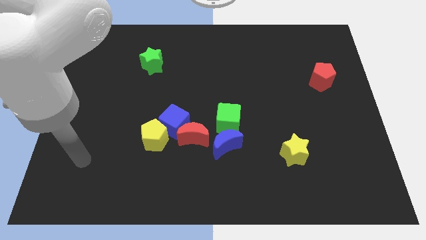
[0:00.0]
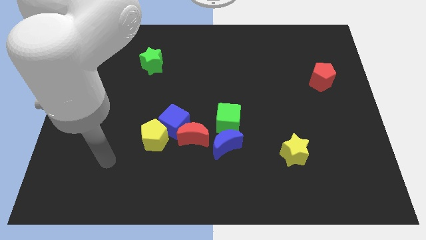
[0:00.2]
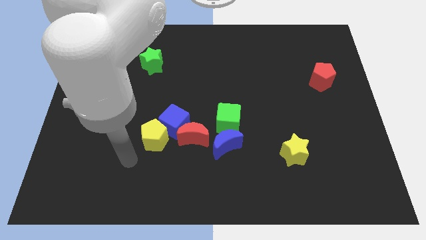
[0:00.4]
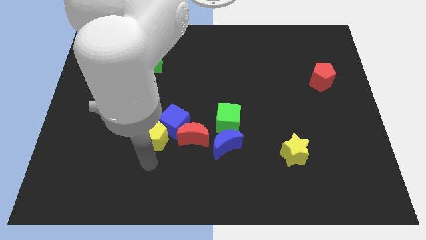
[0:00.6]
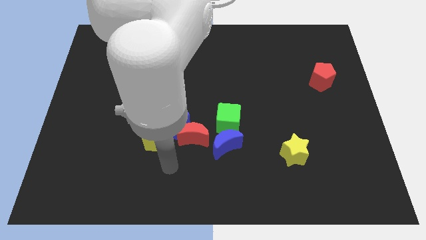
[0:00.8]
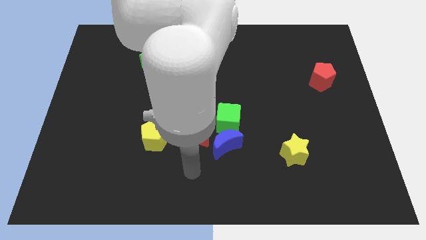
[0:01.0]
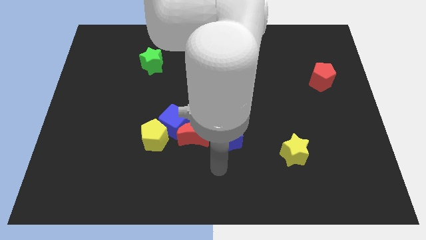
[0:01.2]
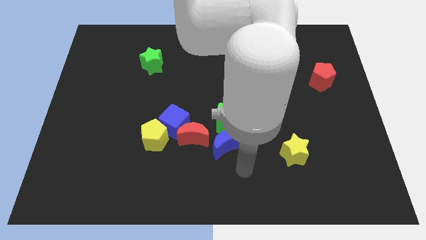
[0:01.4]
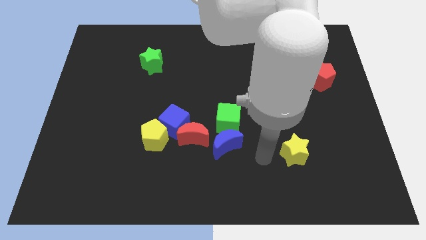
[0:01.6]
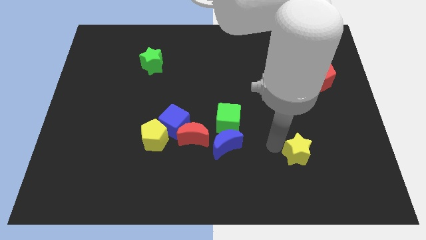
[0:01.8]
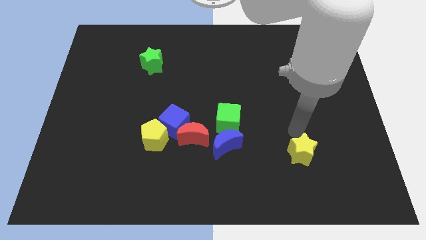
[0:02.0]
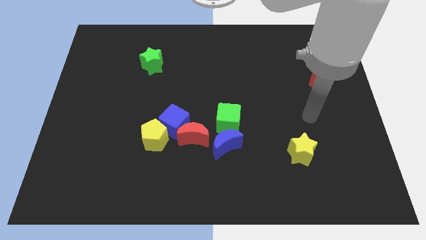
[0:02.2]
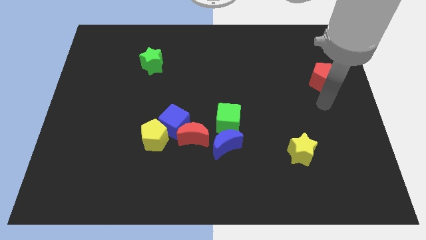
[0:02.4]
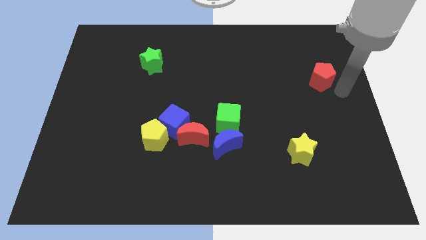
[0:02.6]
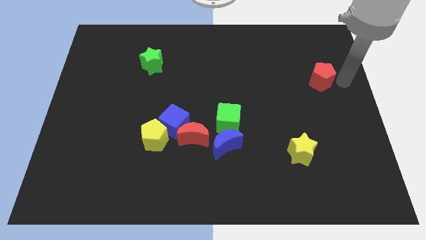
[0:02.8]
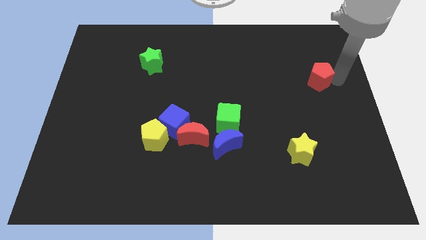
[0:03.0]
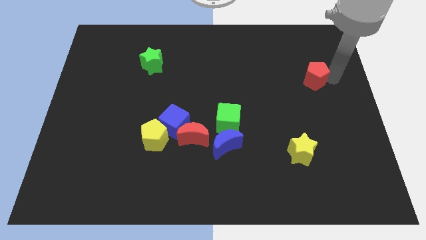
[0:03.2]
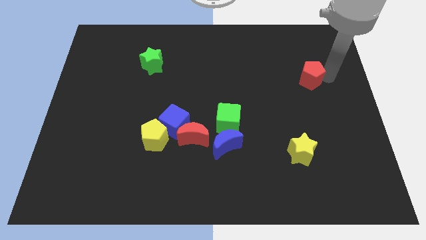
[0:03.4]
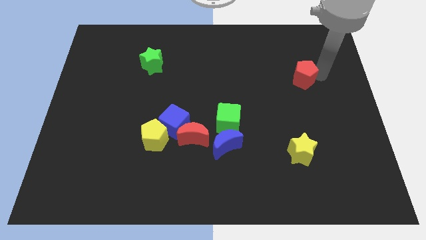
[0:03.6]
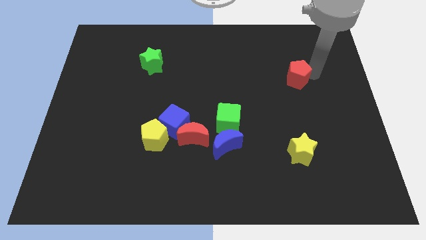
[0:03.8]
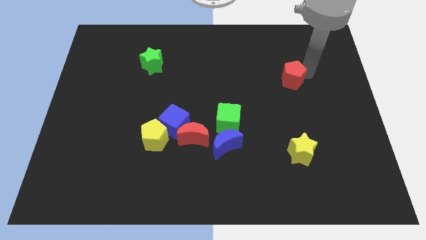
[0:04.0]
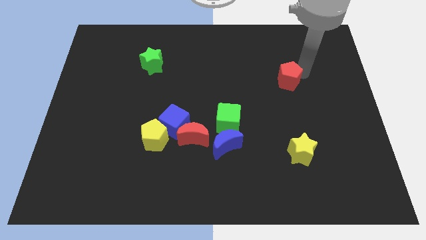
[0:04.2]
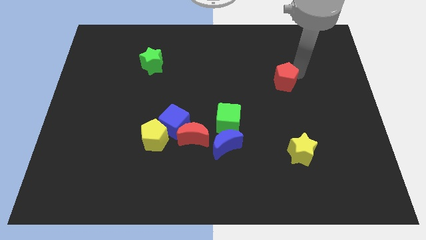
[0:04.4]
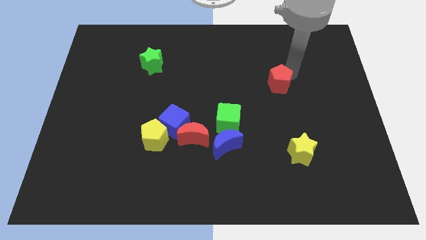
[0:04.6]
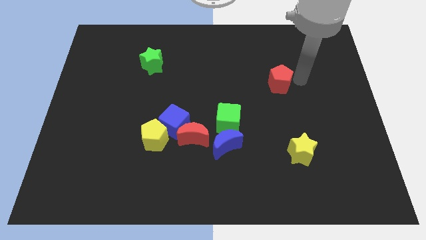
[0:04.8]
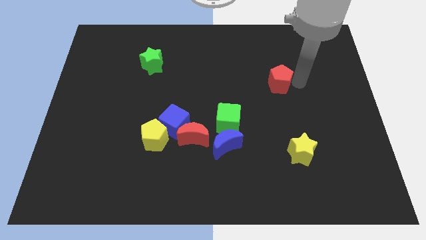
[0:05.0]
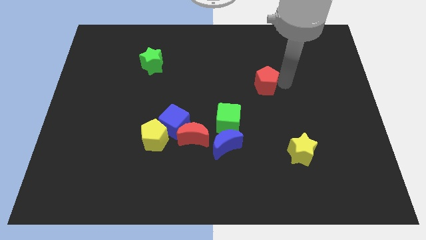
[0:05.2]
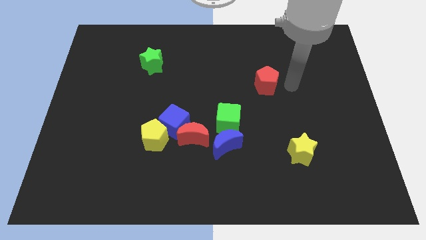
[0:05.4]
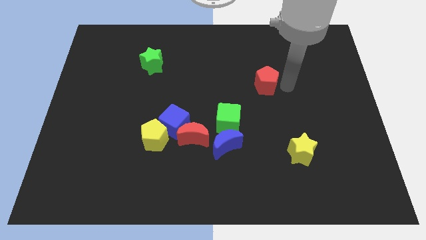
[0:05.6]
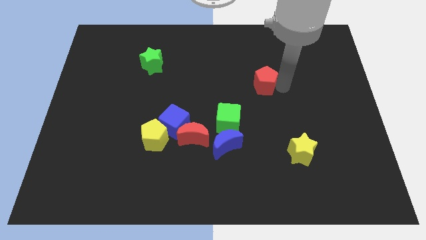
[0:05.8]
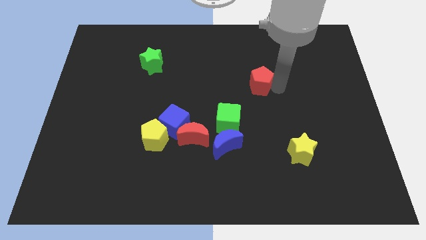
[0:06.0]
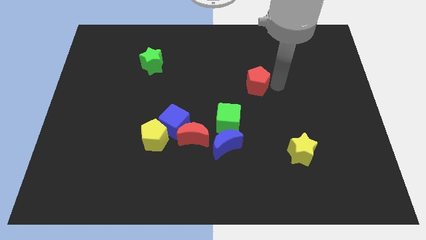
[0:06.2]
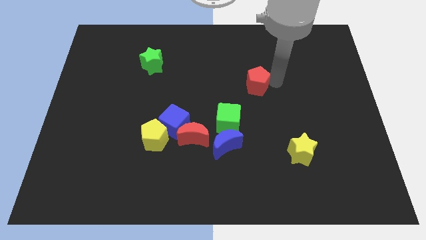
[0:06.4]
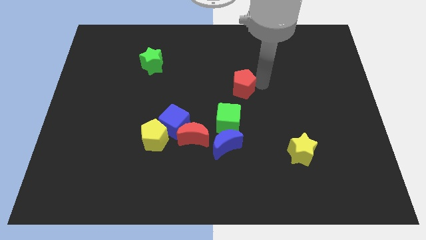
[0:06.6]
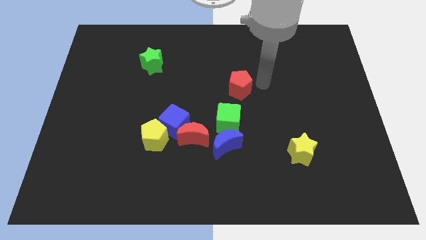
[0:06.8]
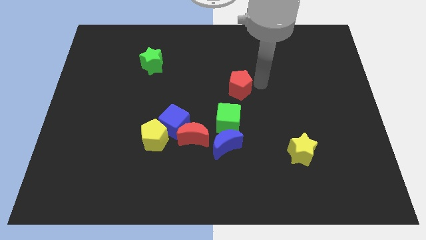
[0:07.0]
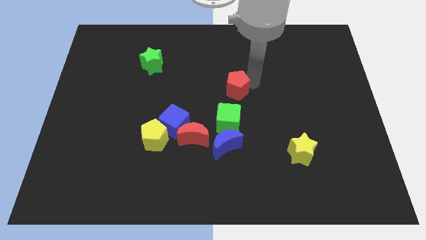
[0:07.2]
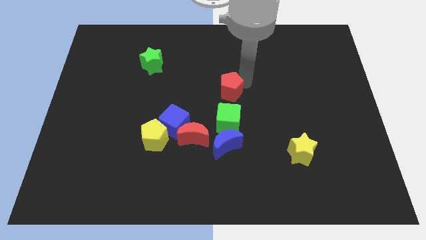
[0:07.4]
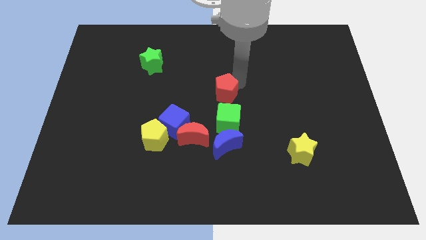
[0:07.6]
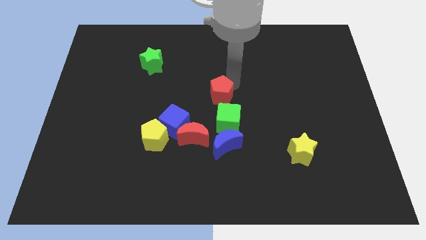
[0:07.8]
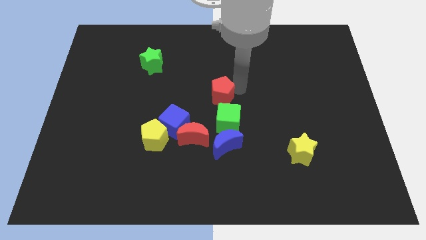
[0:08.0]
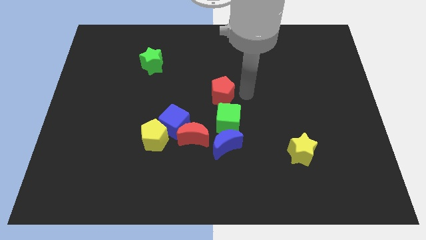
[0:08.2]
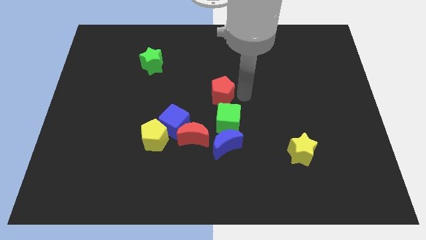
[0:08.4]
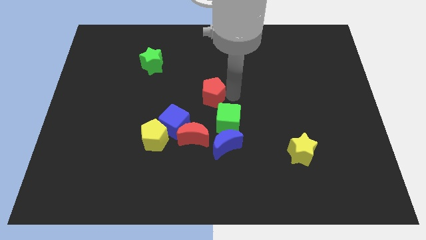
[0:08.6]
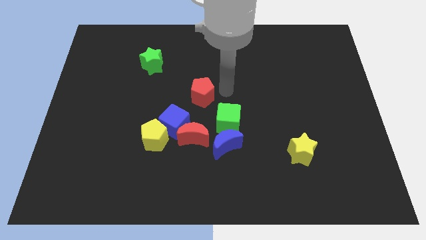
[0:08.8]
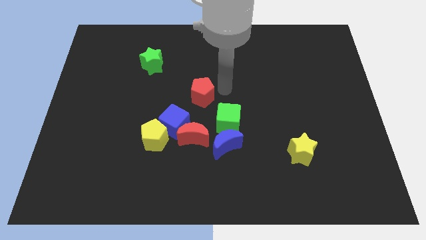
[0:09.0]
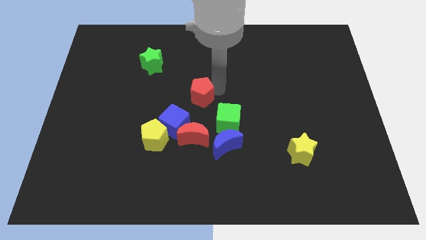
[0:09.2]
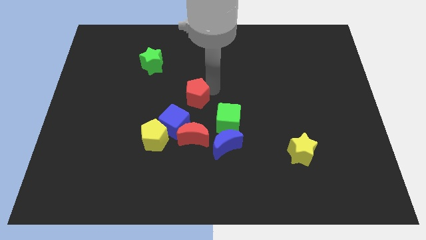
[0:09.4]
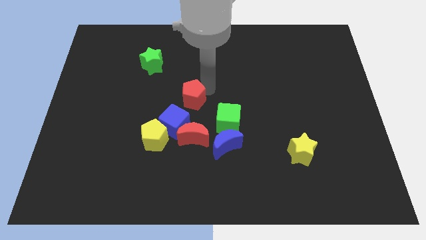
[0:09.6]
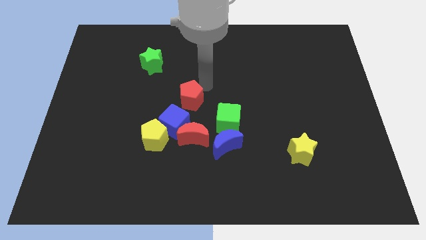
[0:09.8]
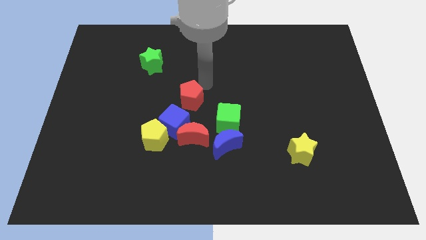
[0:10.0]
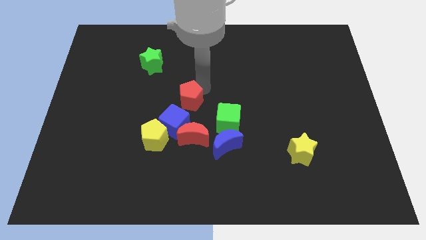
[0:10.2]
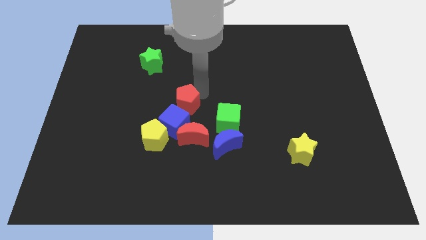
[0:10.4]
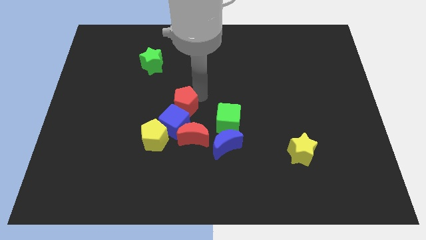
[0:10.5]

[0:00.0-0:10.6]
slide the red pentagon to the top left of the red moon

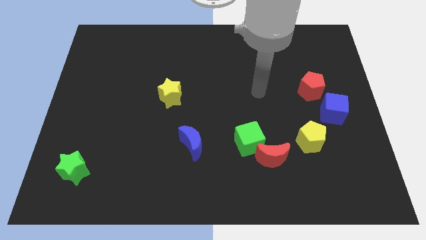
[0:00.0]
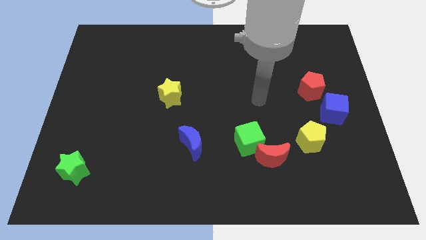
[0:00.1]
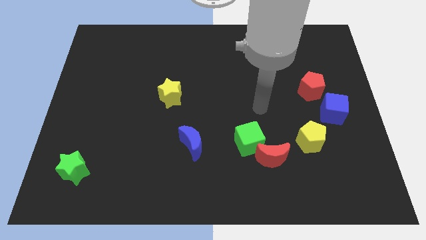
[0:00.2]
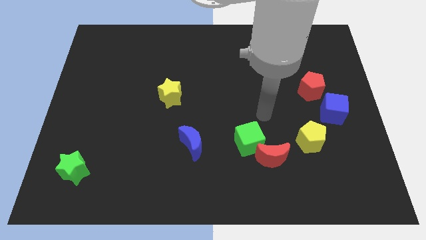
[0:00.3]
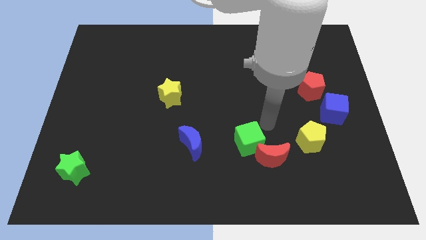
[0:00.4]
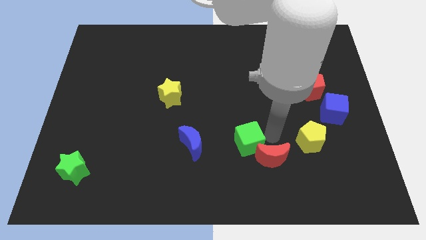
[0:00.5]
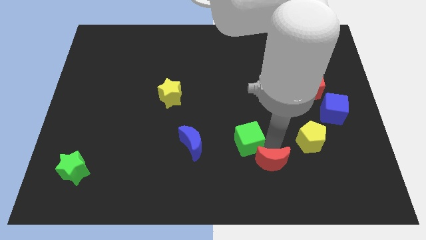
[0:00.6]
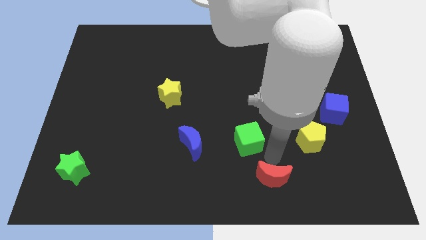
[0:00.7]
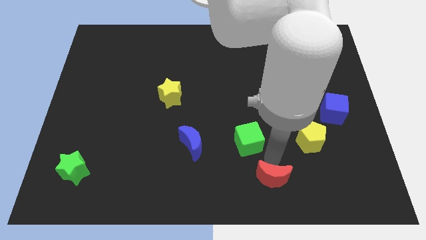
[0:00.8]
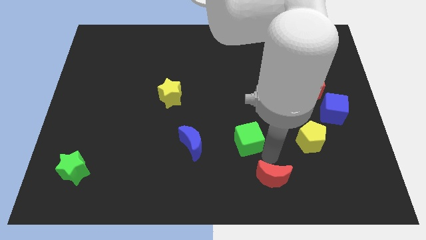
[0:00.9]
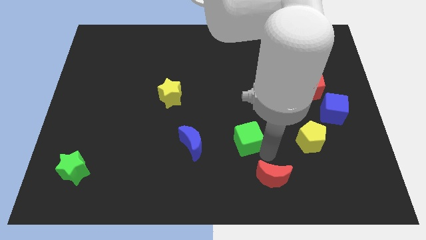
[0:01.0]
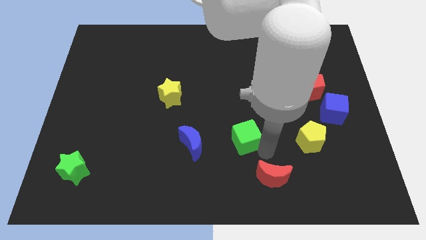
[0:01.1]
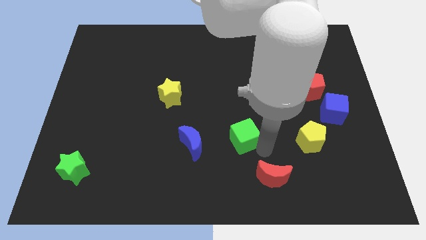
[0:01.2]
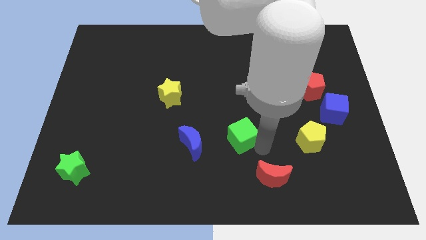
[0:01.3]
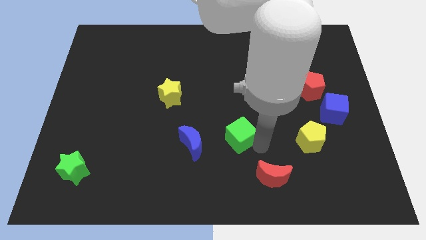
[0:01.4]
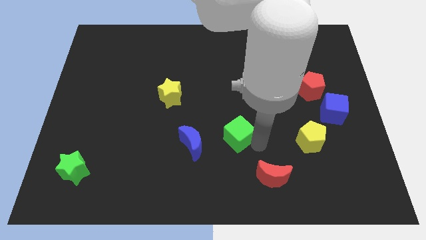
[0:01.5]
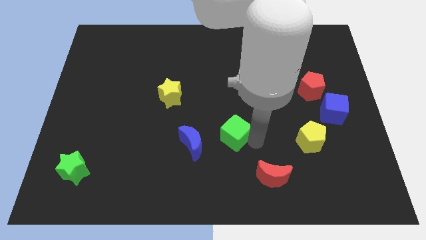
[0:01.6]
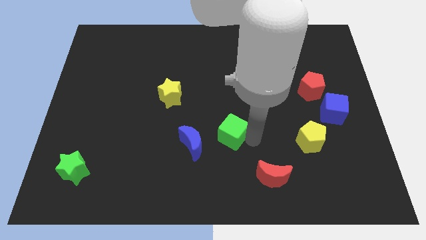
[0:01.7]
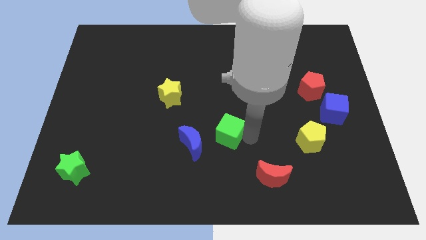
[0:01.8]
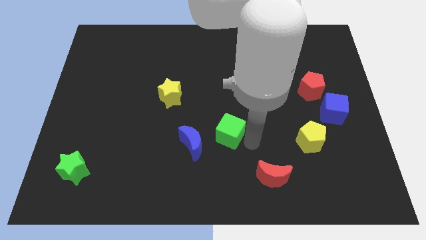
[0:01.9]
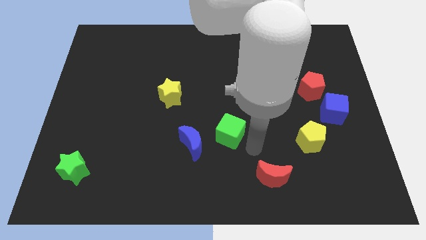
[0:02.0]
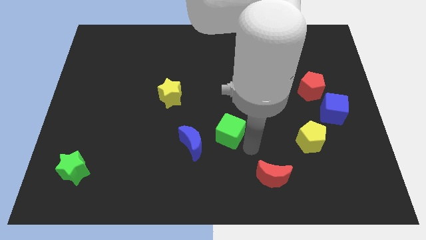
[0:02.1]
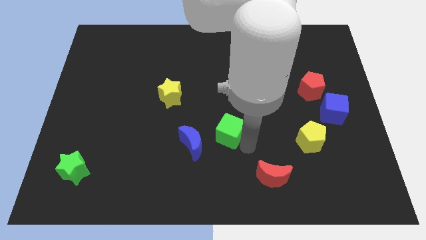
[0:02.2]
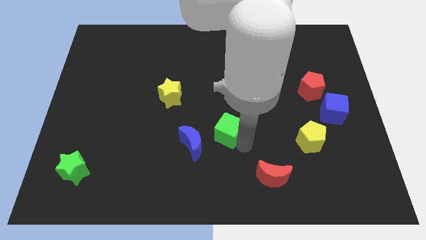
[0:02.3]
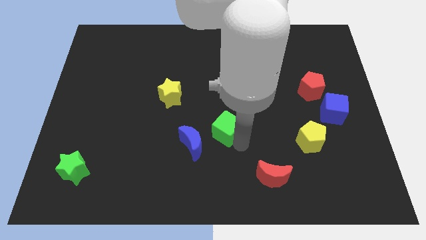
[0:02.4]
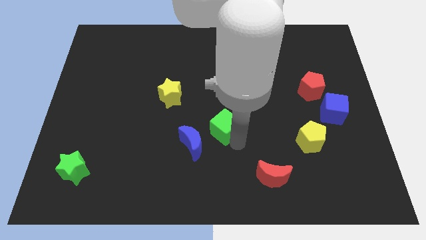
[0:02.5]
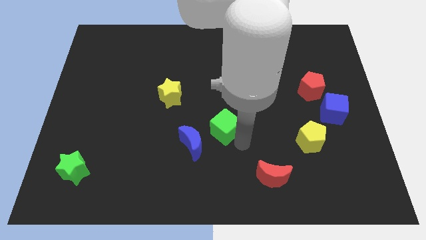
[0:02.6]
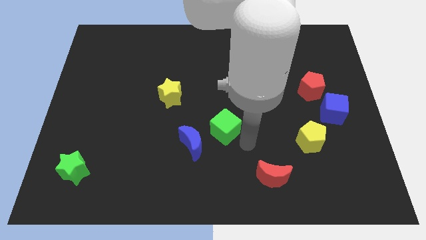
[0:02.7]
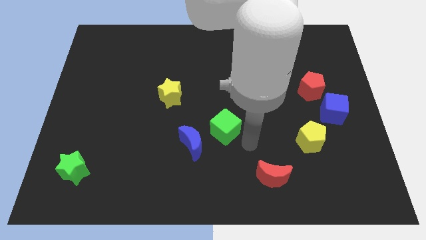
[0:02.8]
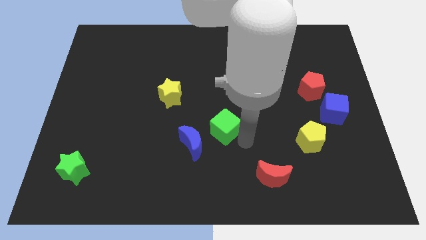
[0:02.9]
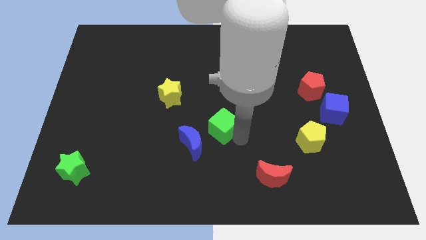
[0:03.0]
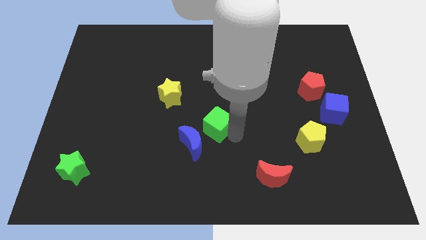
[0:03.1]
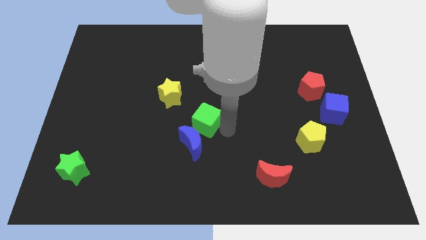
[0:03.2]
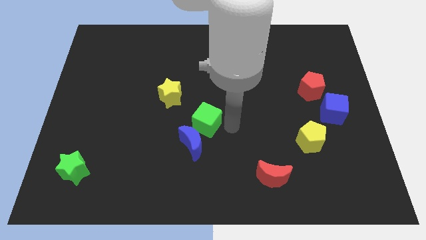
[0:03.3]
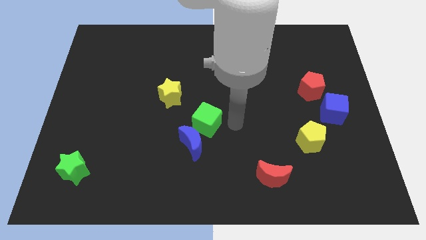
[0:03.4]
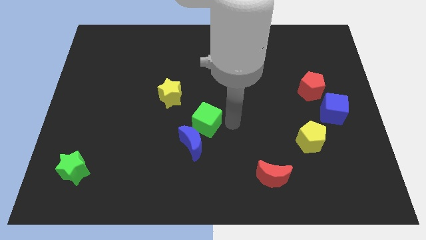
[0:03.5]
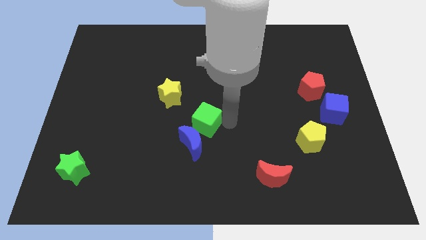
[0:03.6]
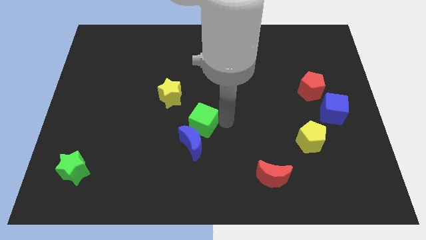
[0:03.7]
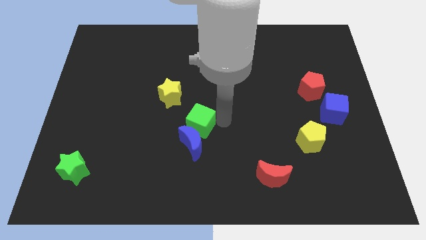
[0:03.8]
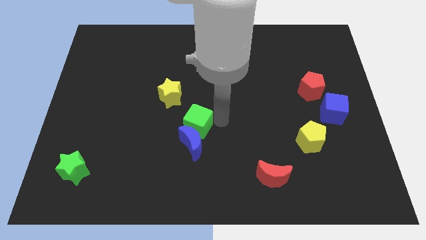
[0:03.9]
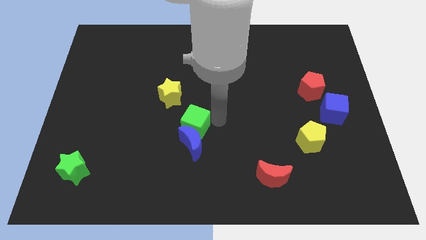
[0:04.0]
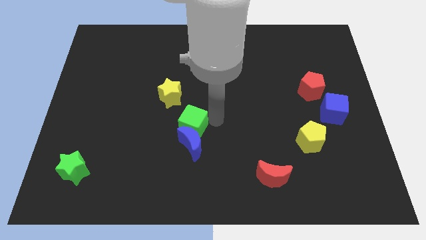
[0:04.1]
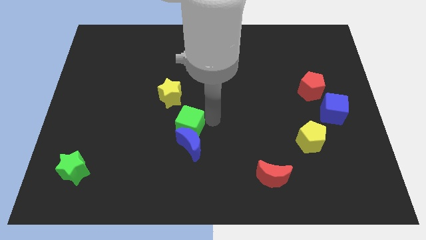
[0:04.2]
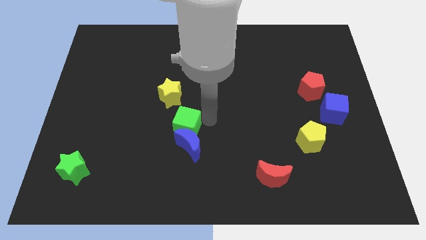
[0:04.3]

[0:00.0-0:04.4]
put the green cube below the yellow star
